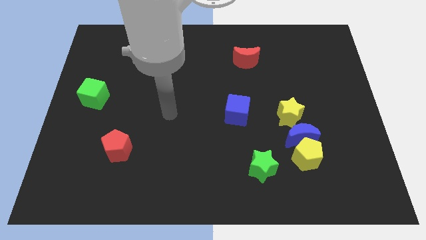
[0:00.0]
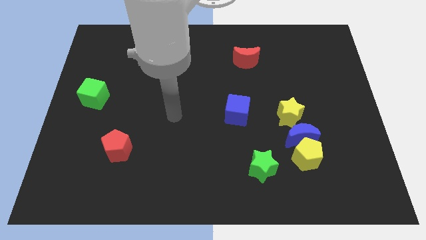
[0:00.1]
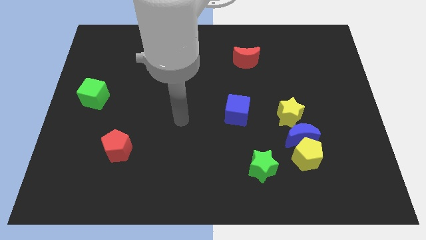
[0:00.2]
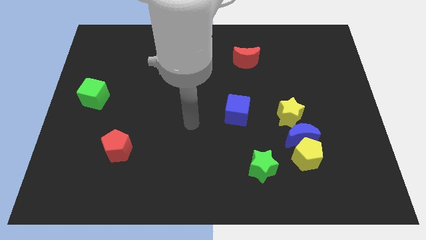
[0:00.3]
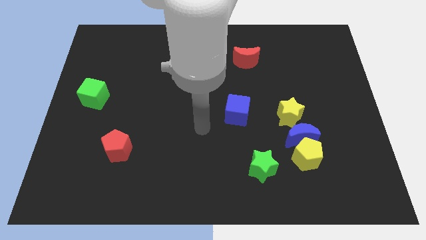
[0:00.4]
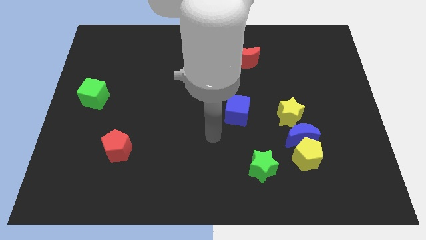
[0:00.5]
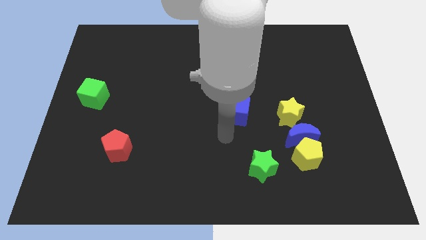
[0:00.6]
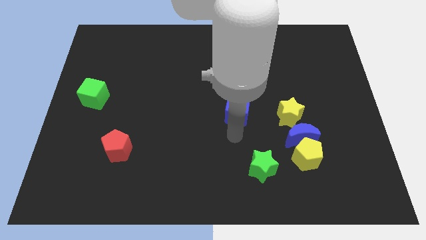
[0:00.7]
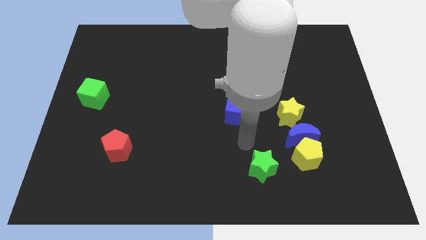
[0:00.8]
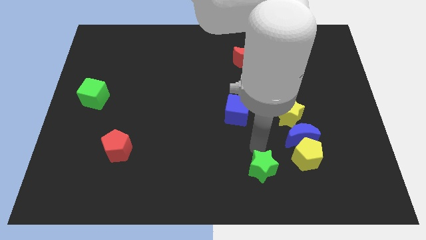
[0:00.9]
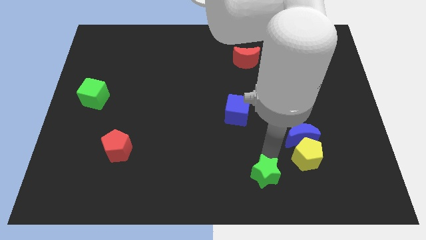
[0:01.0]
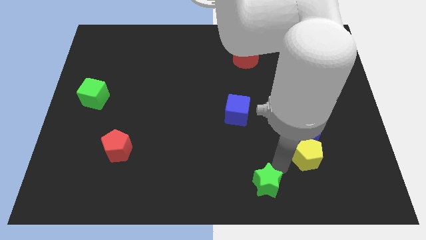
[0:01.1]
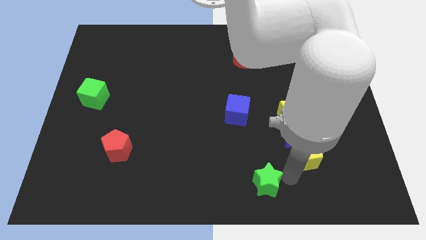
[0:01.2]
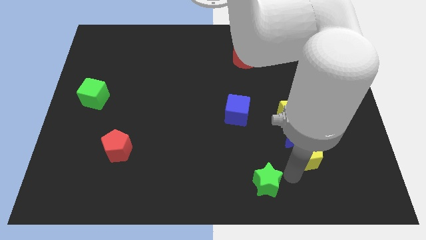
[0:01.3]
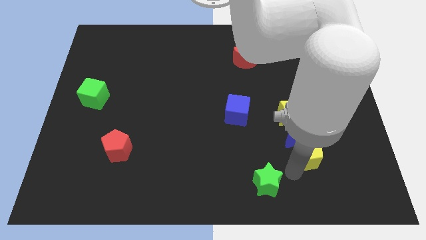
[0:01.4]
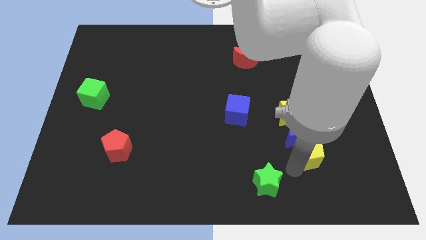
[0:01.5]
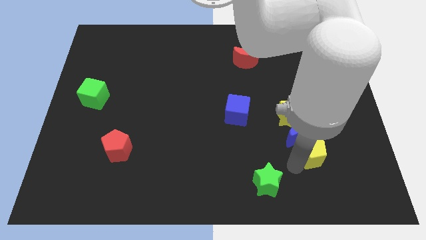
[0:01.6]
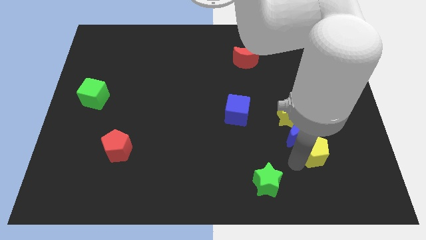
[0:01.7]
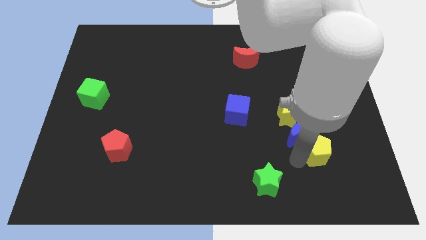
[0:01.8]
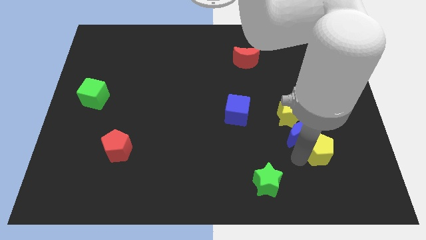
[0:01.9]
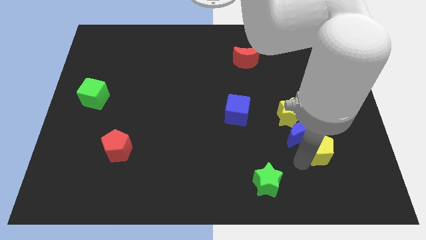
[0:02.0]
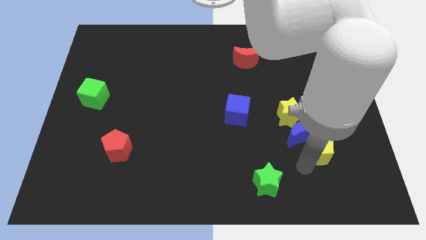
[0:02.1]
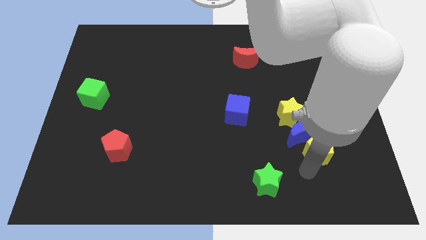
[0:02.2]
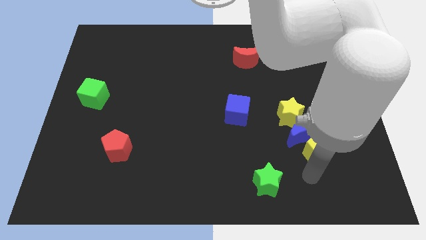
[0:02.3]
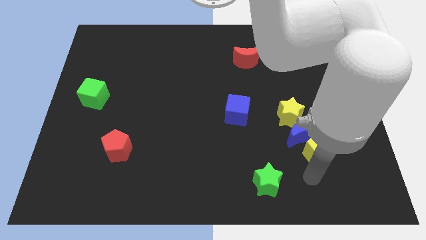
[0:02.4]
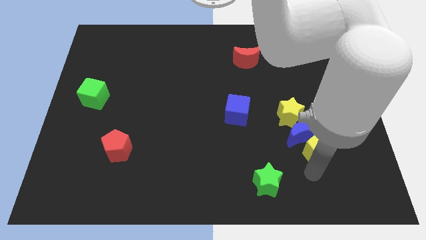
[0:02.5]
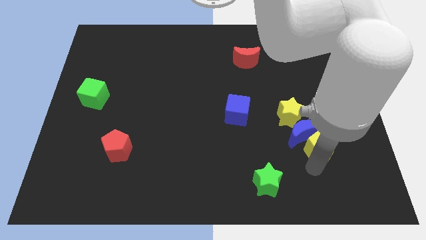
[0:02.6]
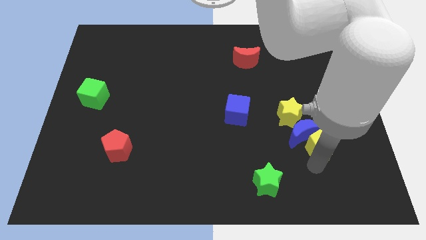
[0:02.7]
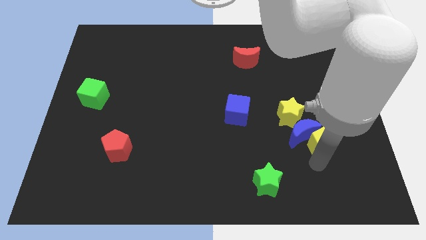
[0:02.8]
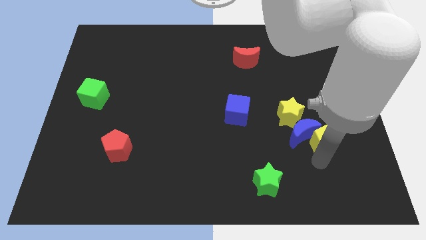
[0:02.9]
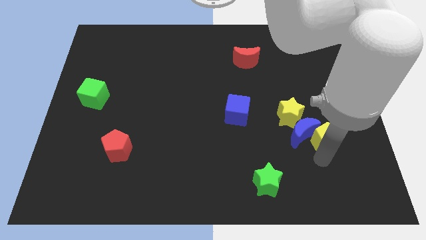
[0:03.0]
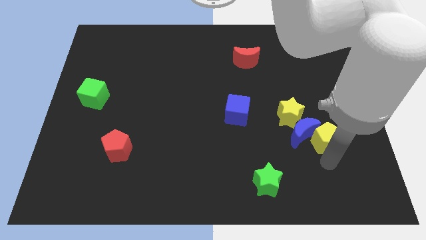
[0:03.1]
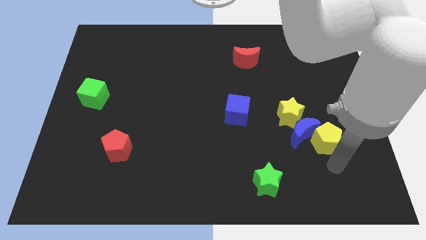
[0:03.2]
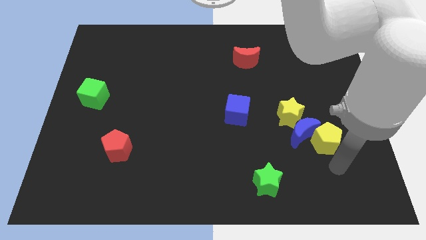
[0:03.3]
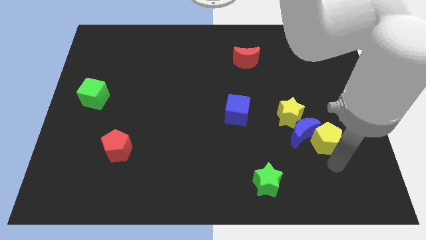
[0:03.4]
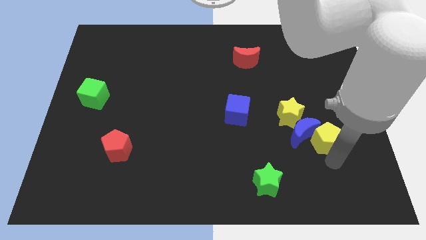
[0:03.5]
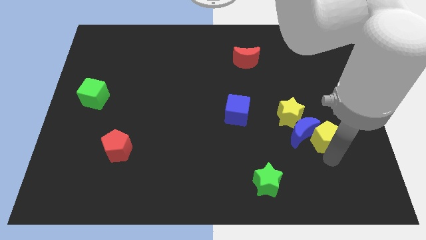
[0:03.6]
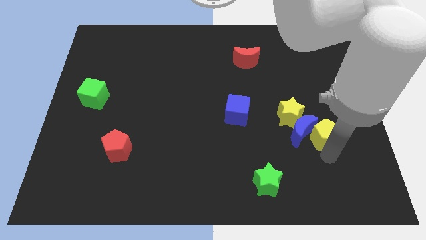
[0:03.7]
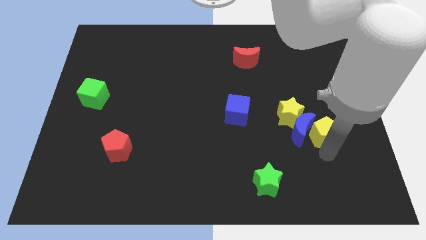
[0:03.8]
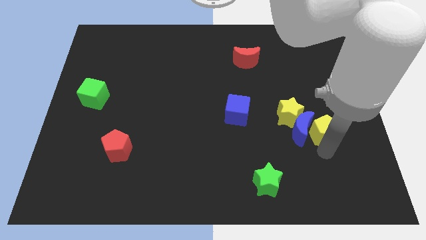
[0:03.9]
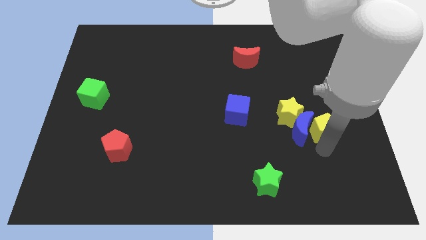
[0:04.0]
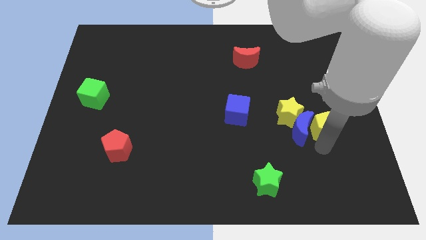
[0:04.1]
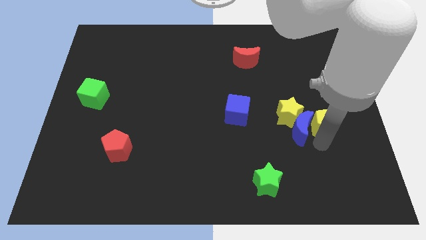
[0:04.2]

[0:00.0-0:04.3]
push the yellow pentagon up a little bit

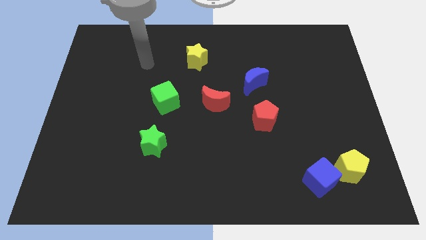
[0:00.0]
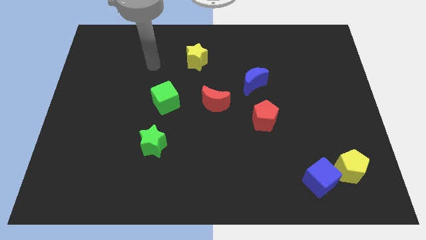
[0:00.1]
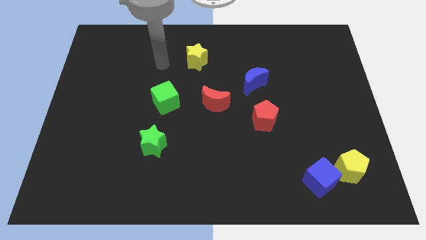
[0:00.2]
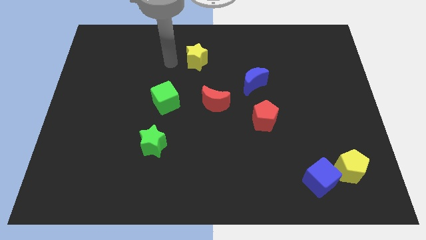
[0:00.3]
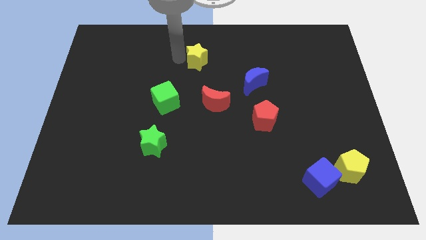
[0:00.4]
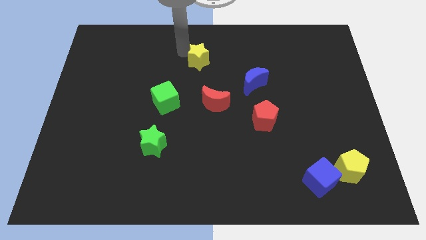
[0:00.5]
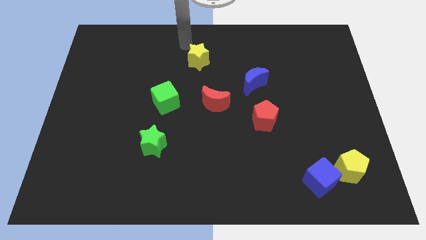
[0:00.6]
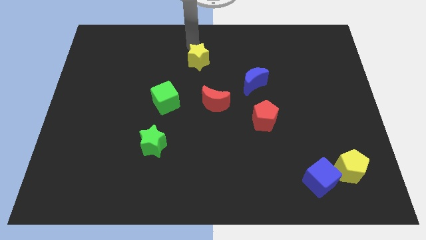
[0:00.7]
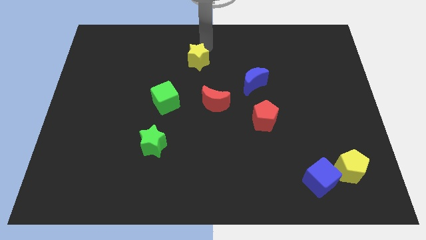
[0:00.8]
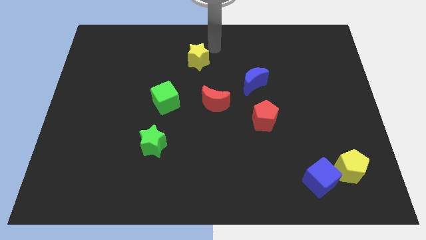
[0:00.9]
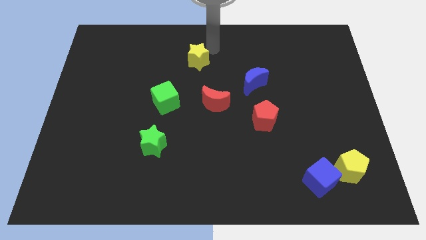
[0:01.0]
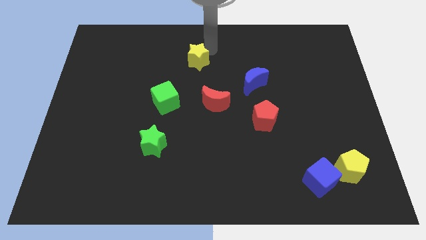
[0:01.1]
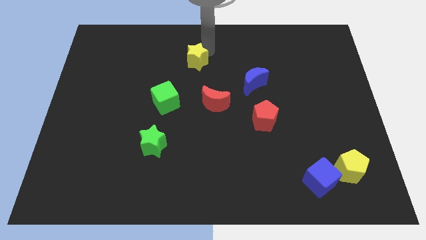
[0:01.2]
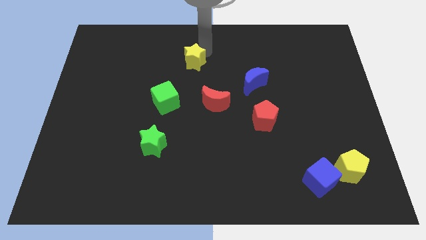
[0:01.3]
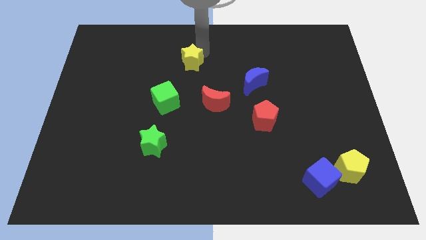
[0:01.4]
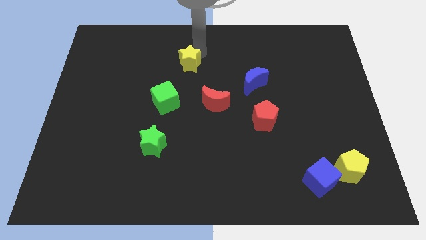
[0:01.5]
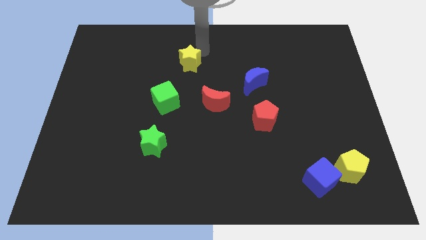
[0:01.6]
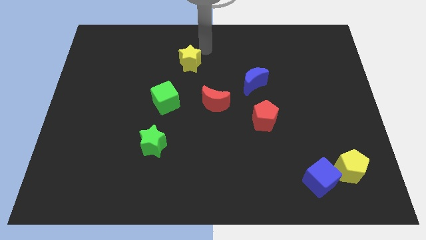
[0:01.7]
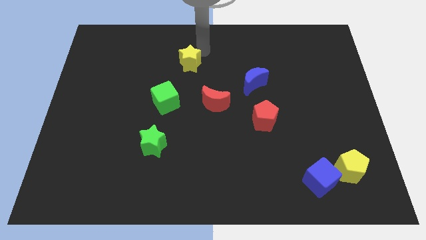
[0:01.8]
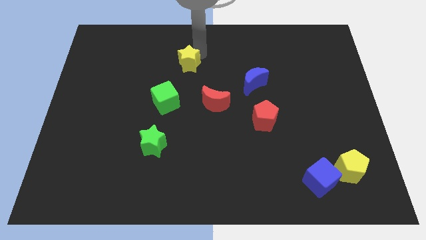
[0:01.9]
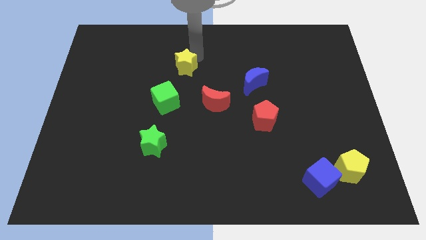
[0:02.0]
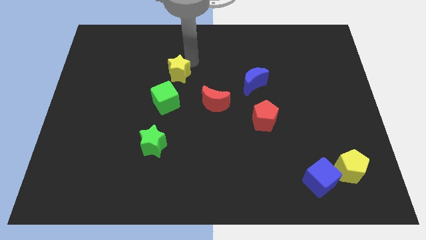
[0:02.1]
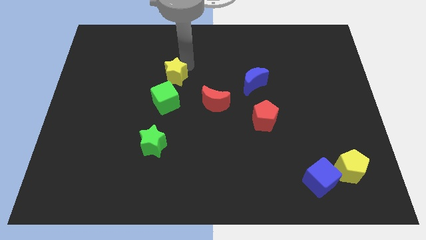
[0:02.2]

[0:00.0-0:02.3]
slightly slide the yellow star diagonally down and to the left

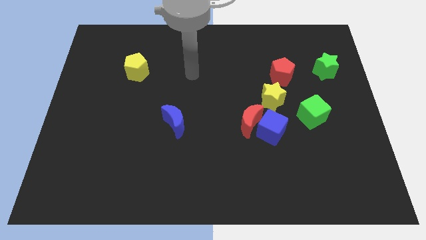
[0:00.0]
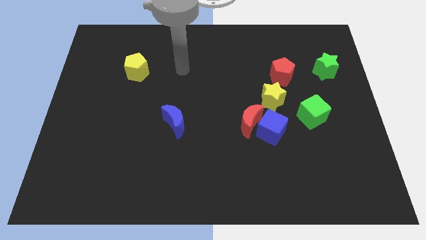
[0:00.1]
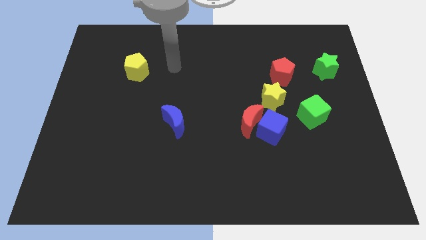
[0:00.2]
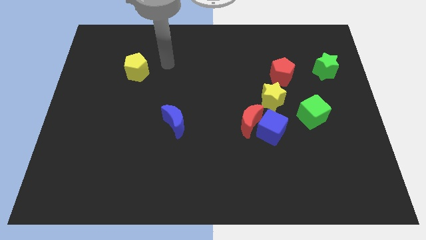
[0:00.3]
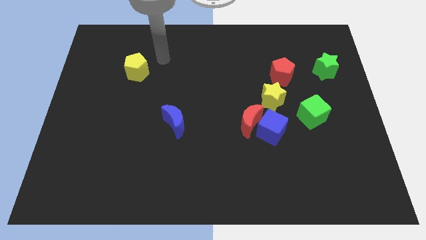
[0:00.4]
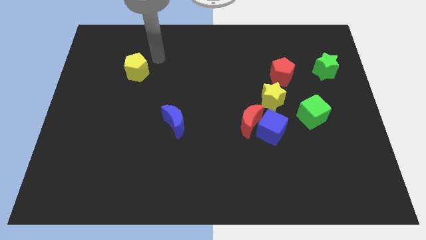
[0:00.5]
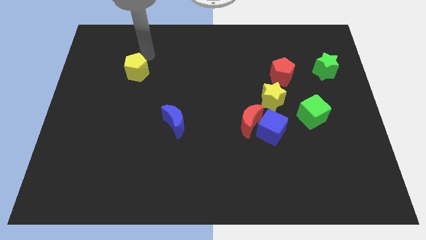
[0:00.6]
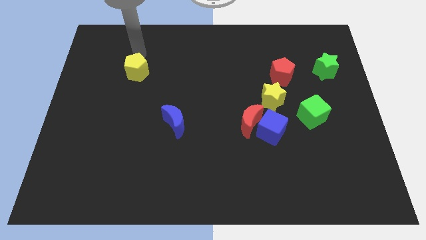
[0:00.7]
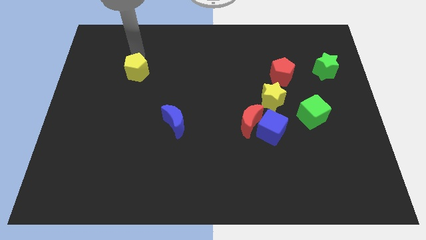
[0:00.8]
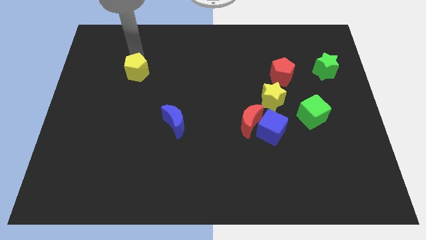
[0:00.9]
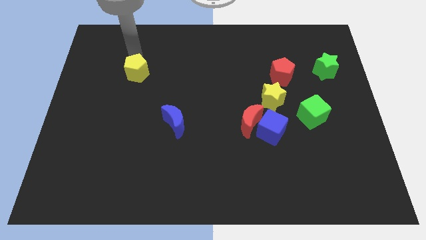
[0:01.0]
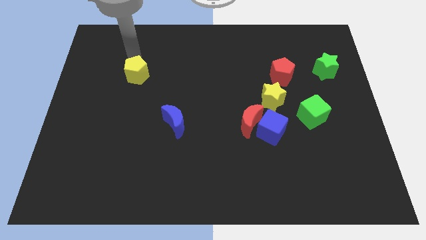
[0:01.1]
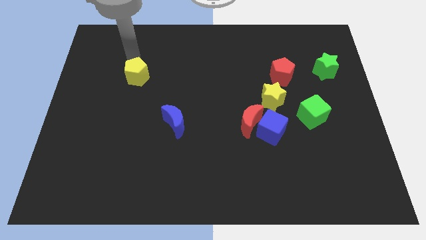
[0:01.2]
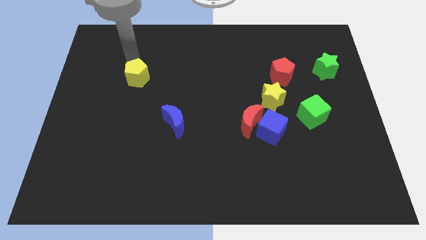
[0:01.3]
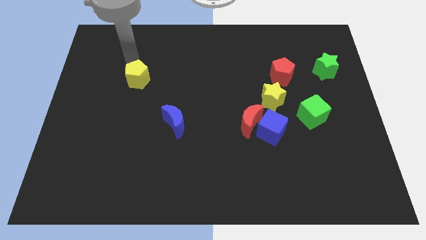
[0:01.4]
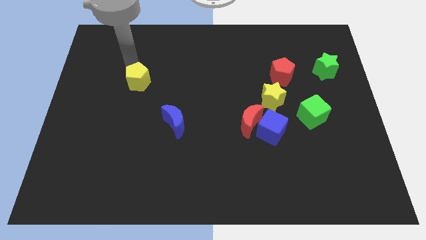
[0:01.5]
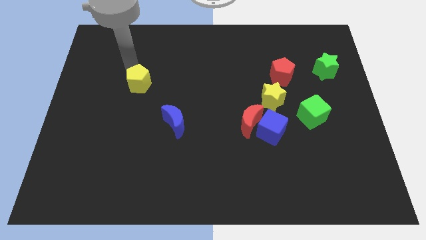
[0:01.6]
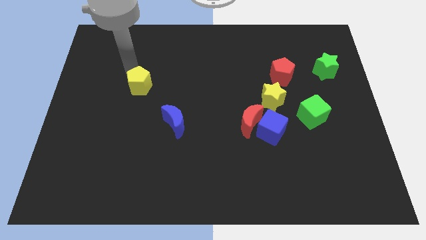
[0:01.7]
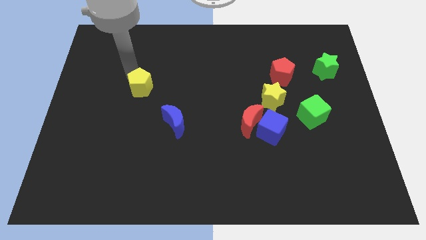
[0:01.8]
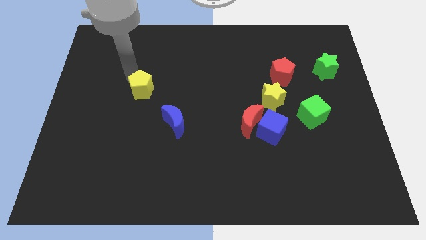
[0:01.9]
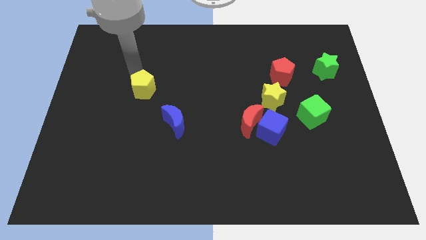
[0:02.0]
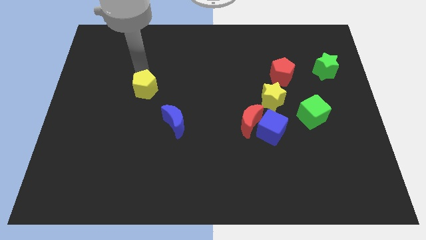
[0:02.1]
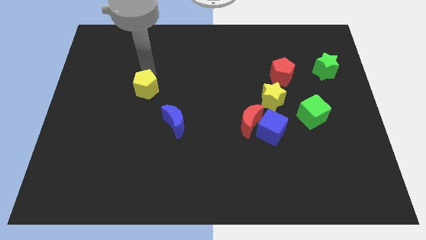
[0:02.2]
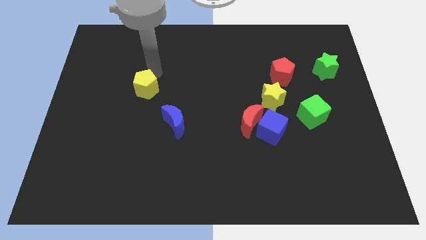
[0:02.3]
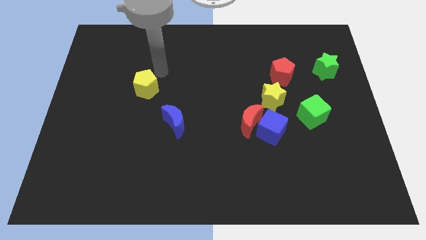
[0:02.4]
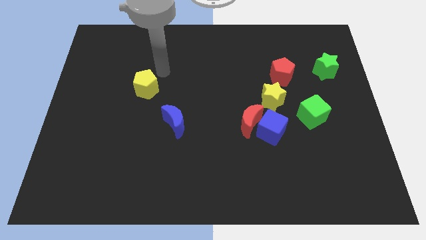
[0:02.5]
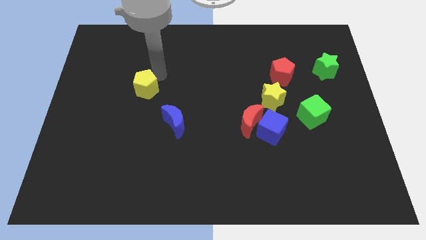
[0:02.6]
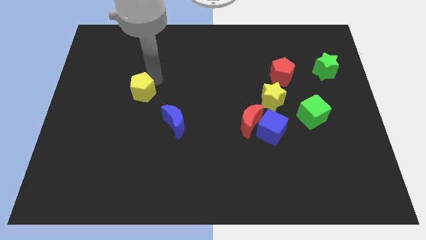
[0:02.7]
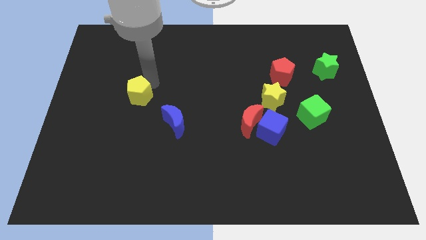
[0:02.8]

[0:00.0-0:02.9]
slightly push the yellow pentagon down
